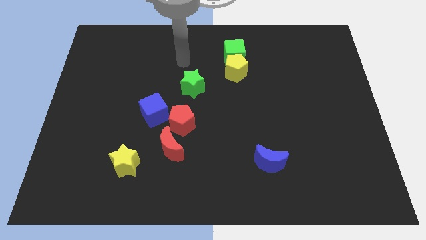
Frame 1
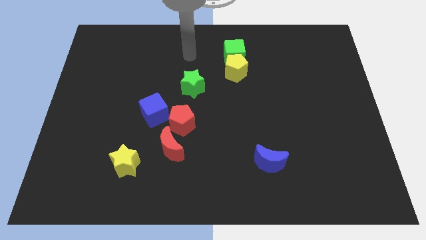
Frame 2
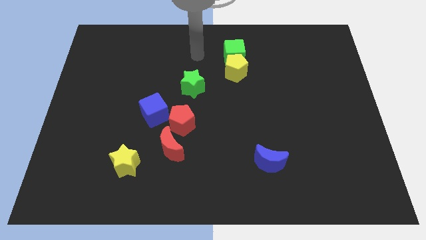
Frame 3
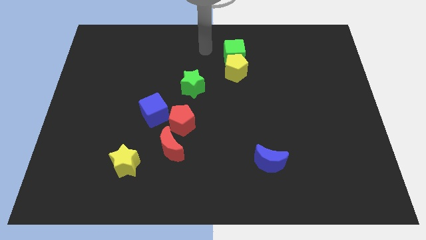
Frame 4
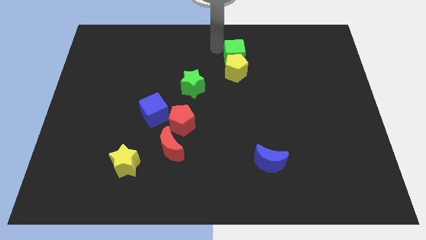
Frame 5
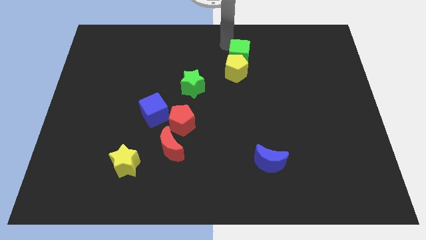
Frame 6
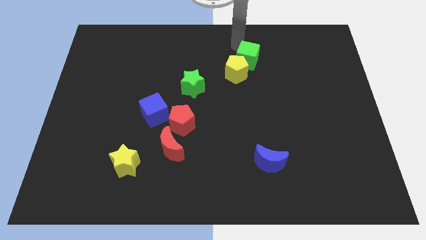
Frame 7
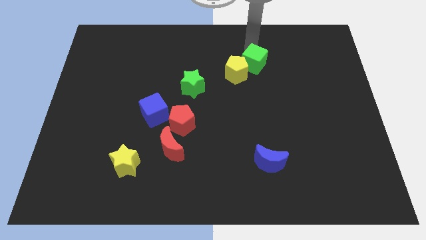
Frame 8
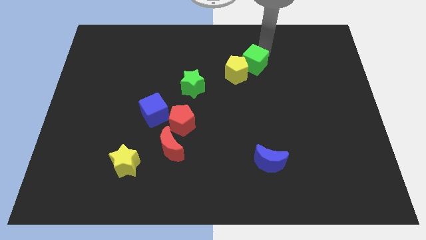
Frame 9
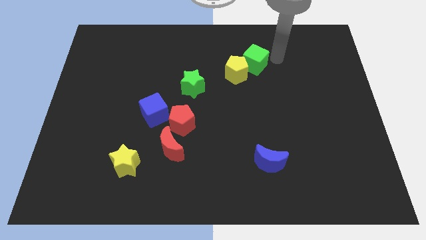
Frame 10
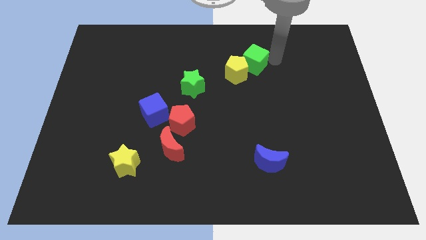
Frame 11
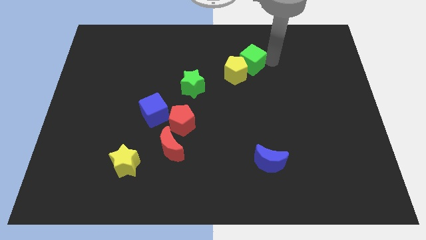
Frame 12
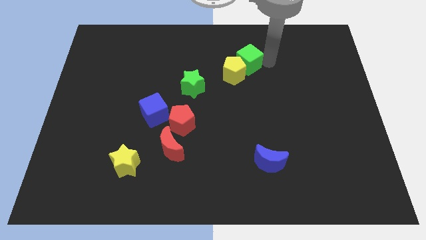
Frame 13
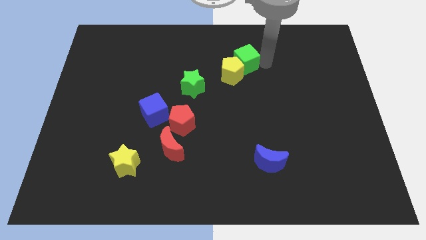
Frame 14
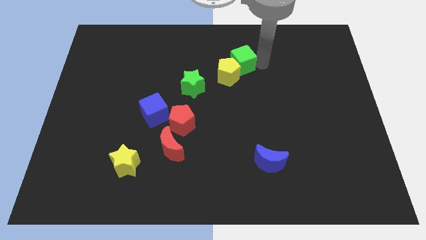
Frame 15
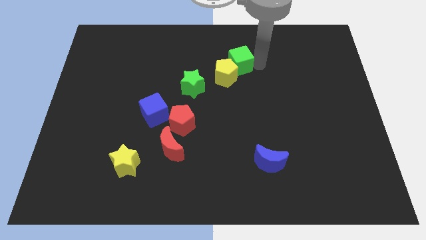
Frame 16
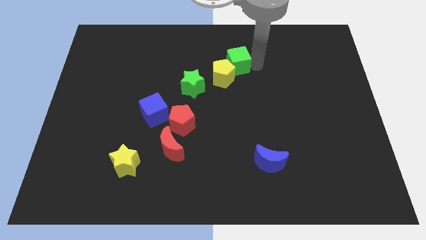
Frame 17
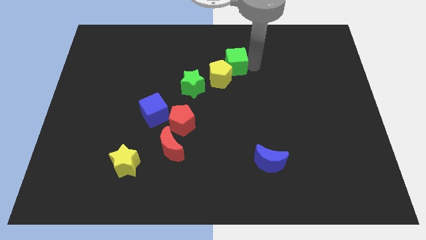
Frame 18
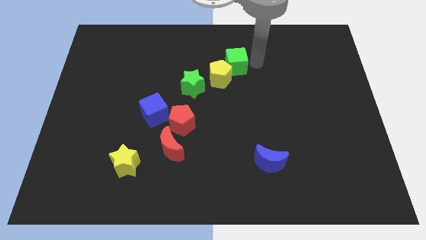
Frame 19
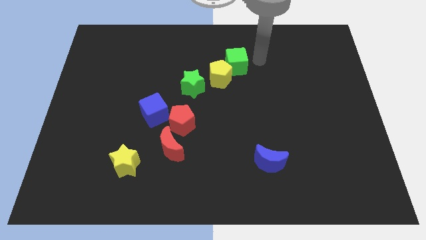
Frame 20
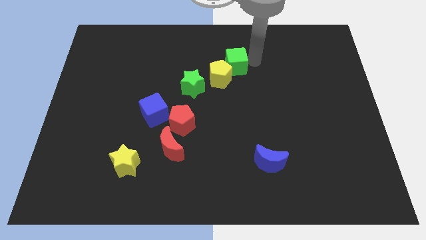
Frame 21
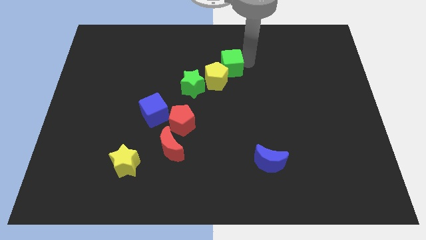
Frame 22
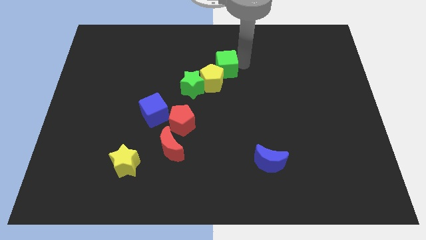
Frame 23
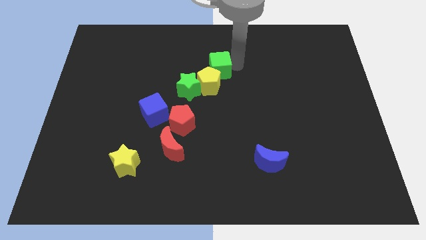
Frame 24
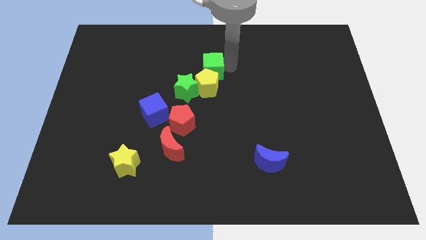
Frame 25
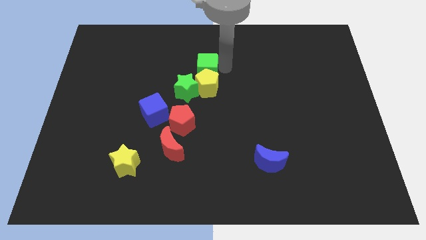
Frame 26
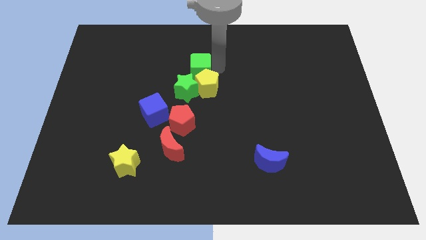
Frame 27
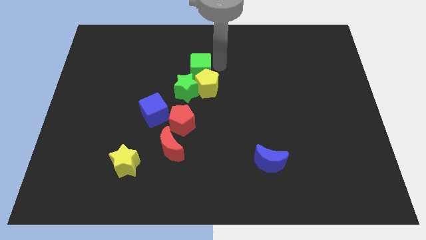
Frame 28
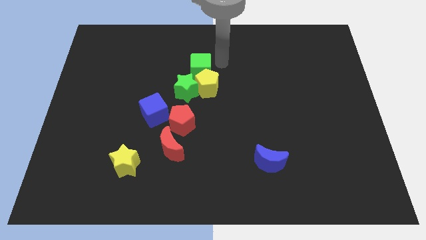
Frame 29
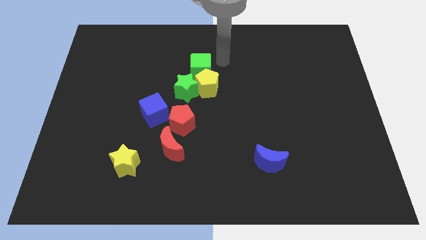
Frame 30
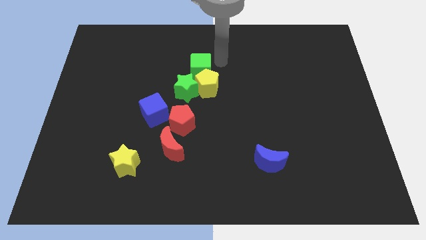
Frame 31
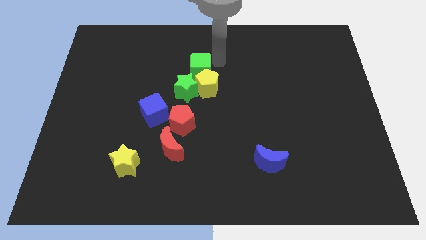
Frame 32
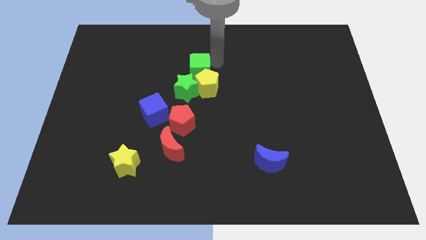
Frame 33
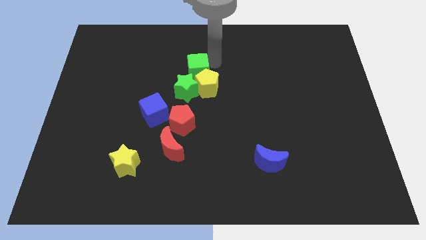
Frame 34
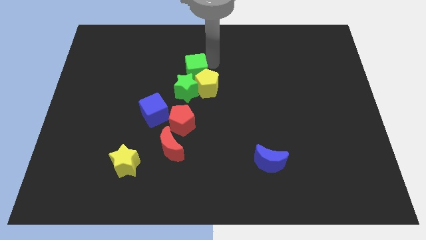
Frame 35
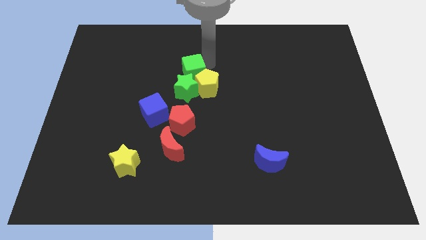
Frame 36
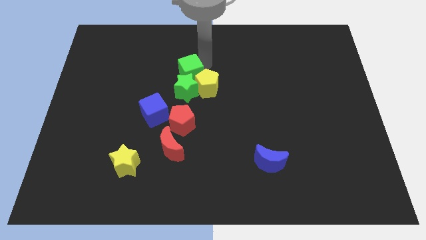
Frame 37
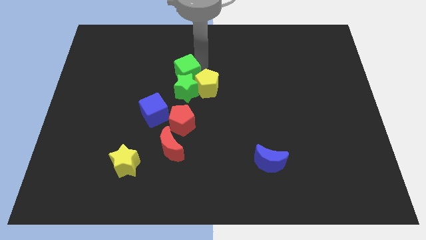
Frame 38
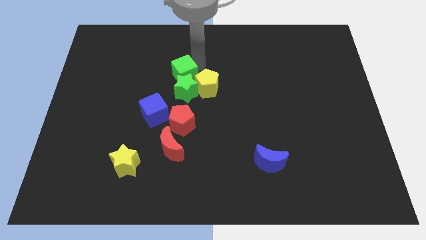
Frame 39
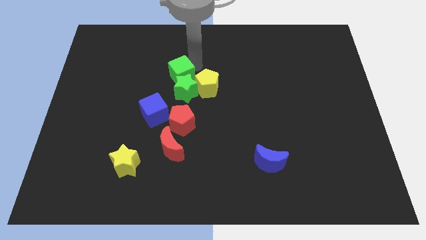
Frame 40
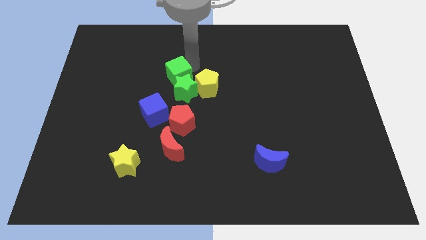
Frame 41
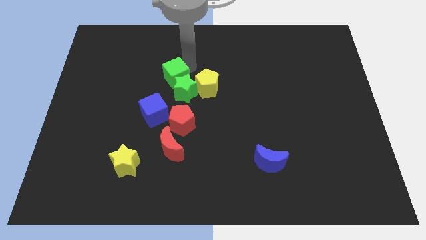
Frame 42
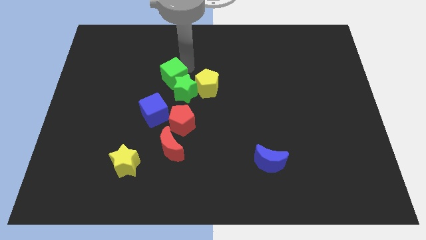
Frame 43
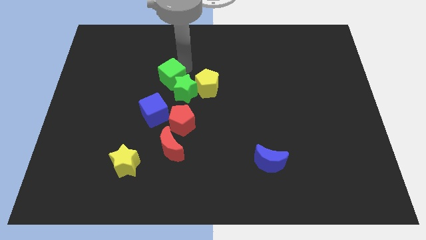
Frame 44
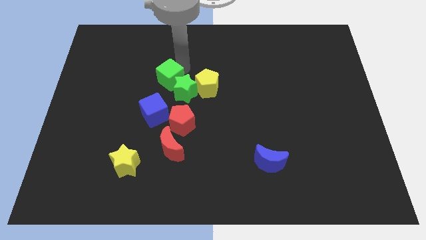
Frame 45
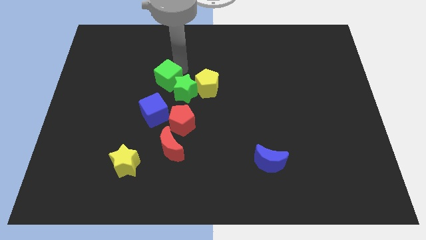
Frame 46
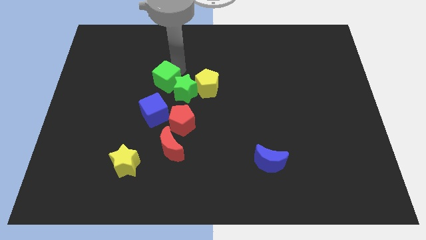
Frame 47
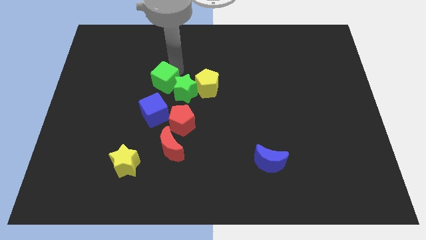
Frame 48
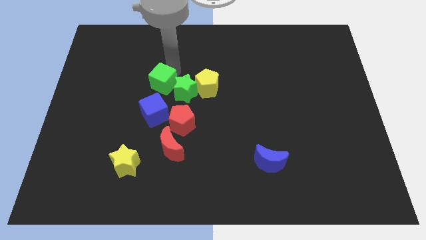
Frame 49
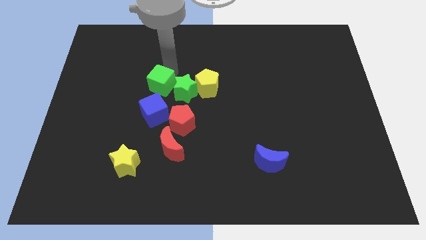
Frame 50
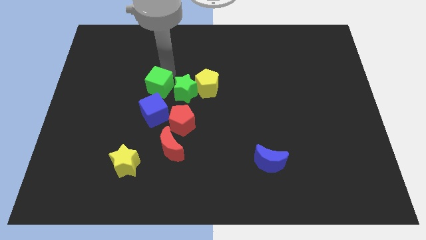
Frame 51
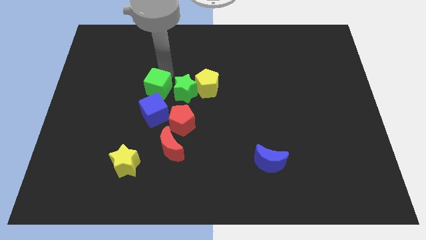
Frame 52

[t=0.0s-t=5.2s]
slide the green cube diagonally down and left

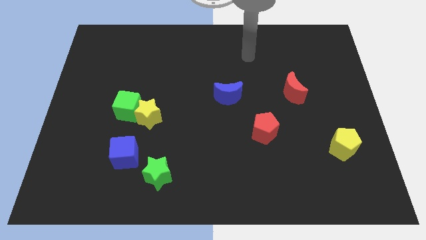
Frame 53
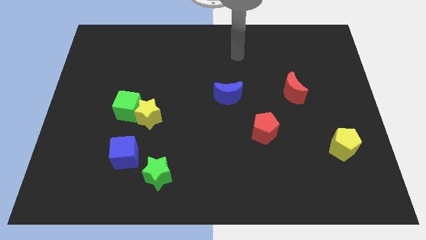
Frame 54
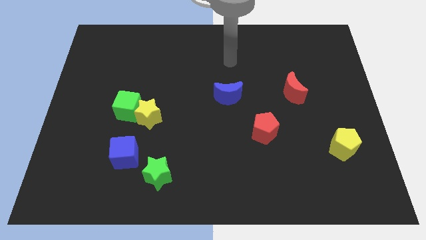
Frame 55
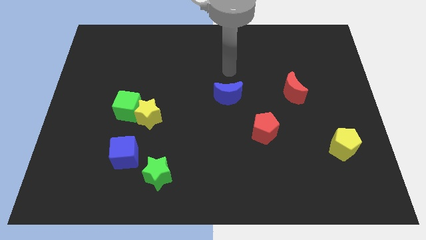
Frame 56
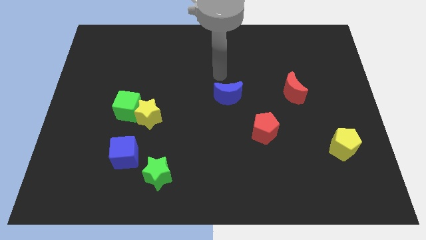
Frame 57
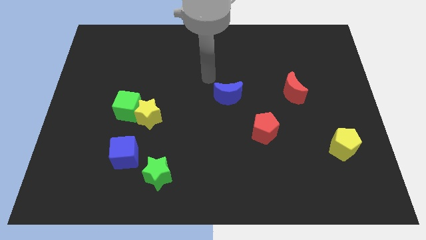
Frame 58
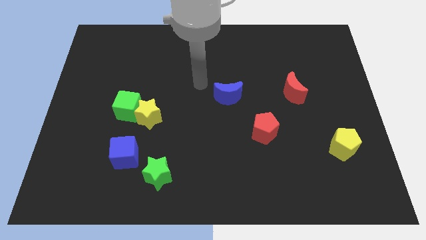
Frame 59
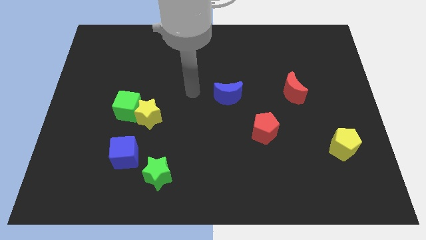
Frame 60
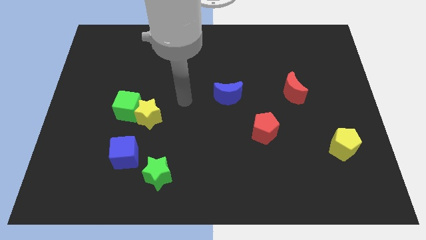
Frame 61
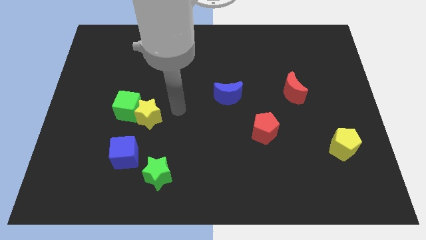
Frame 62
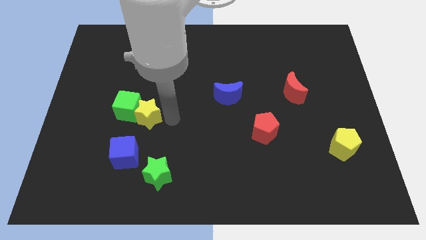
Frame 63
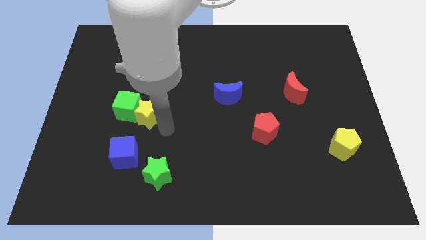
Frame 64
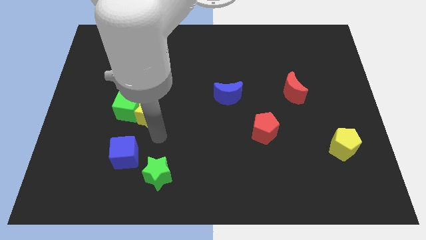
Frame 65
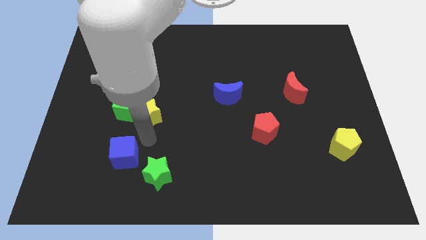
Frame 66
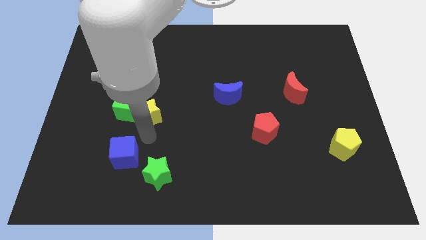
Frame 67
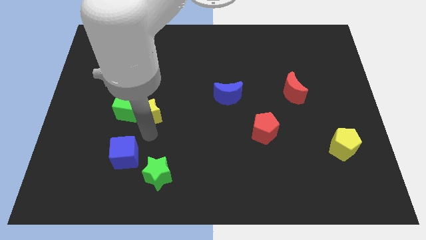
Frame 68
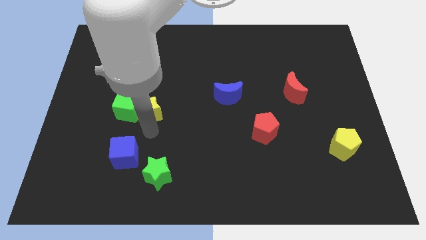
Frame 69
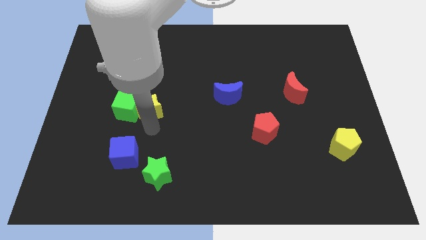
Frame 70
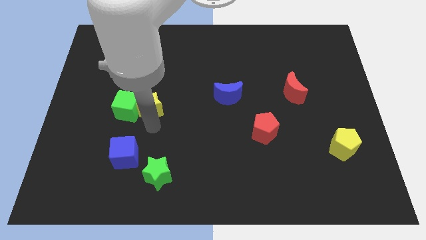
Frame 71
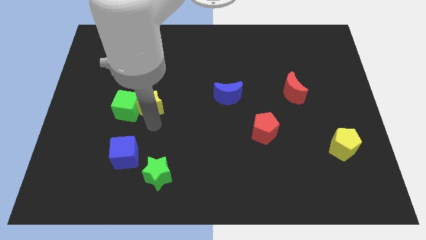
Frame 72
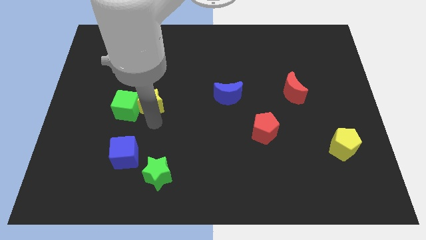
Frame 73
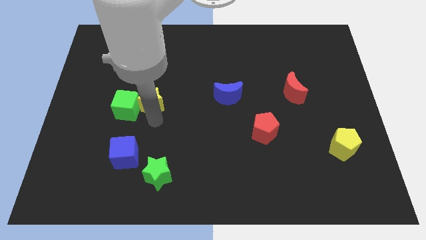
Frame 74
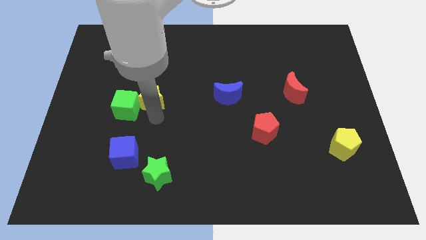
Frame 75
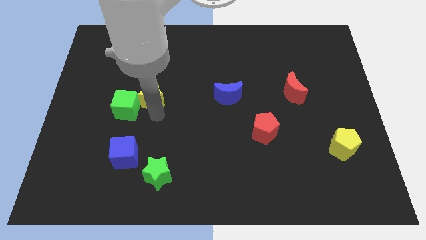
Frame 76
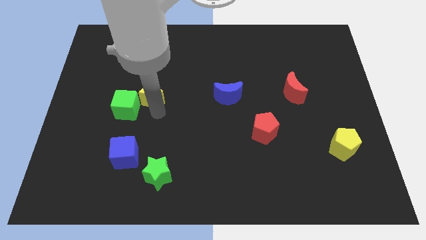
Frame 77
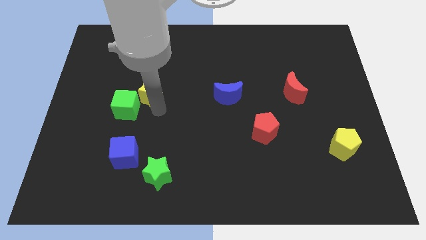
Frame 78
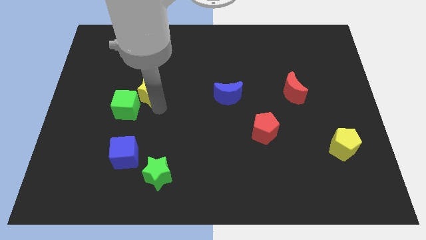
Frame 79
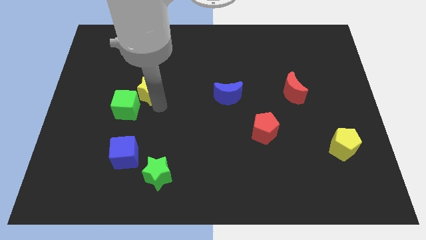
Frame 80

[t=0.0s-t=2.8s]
move the yellow star slightly upwards

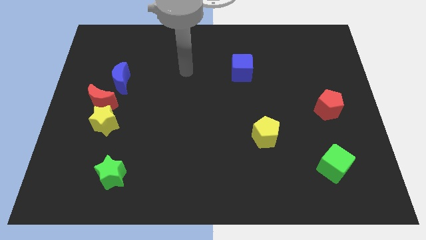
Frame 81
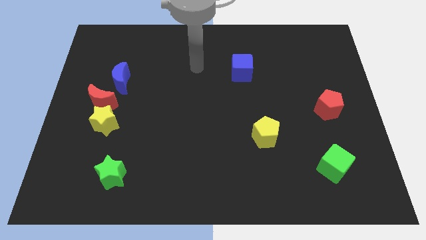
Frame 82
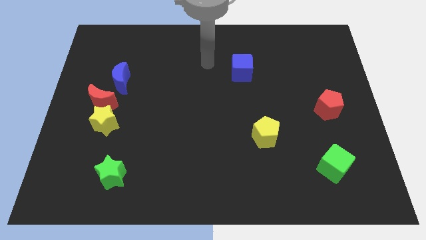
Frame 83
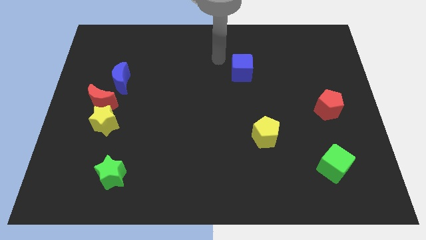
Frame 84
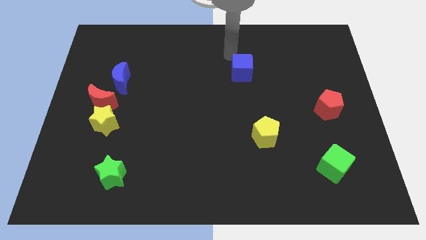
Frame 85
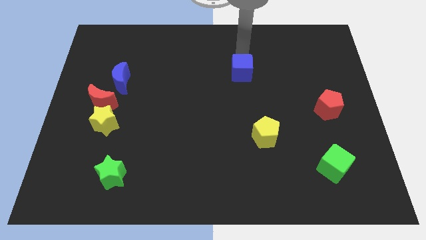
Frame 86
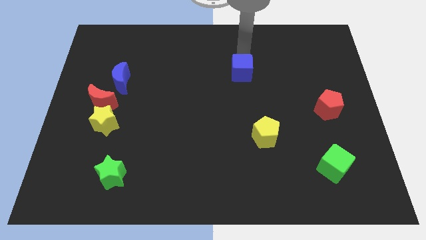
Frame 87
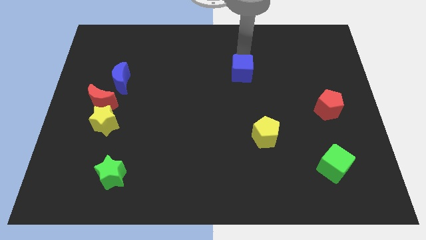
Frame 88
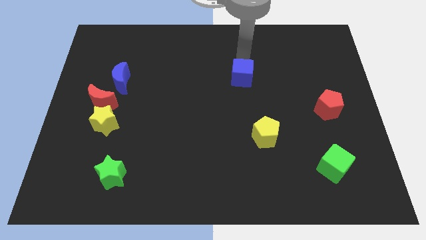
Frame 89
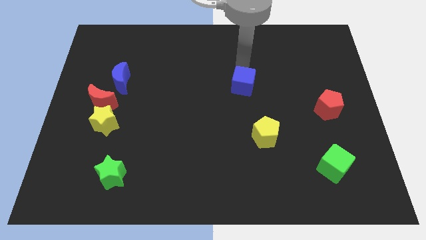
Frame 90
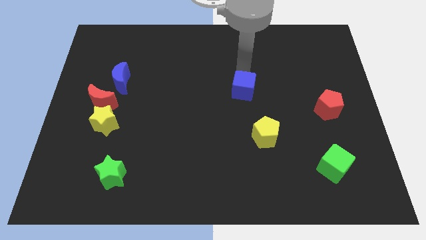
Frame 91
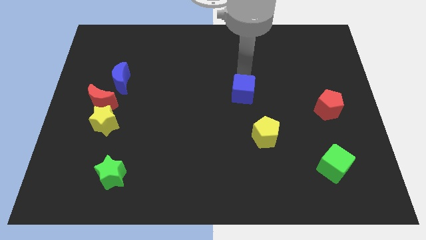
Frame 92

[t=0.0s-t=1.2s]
move the blue cube slightly downwards
